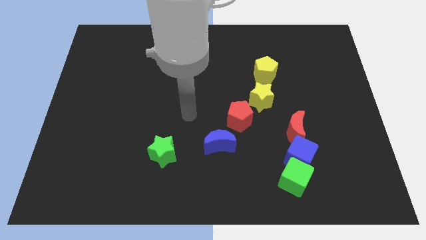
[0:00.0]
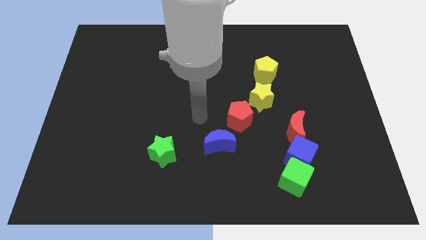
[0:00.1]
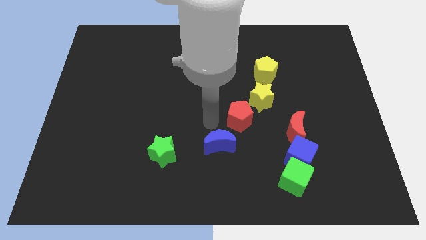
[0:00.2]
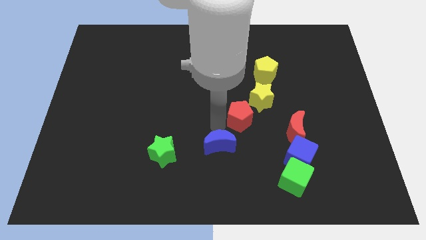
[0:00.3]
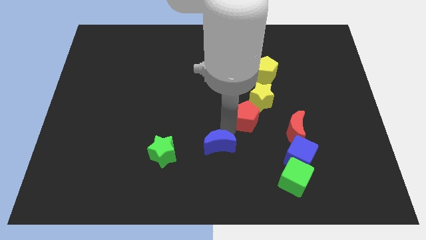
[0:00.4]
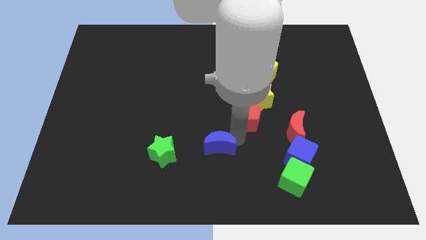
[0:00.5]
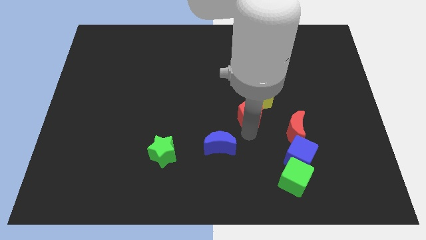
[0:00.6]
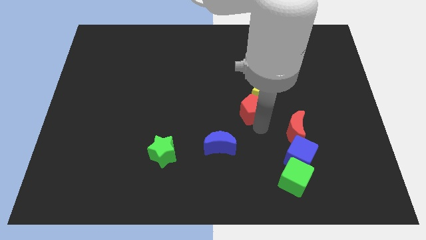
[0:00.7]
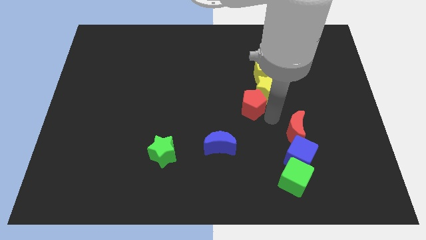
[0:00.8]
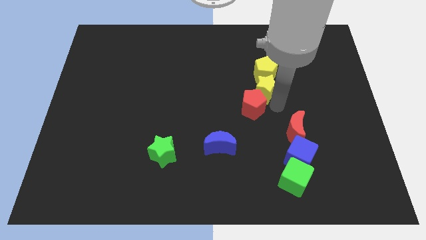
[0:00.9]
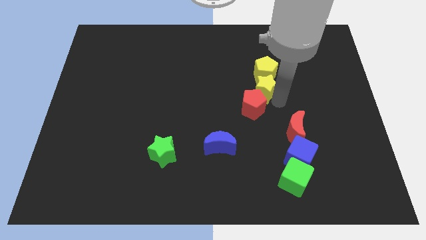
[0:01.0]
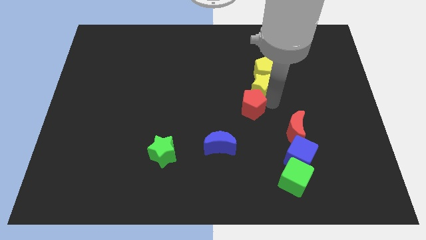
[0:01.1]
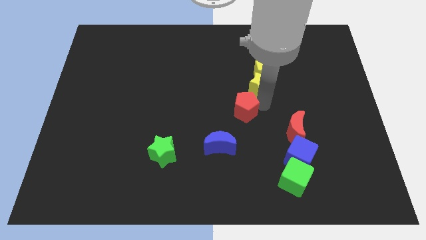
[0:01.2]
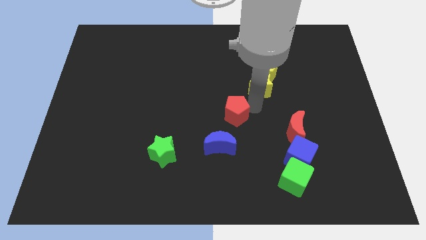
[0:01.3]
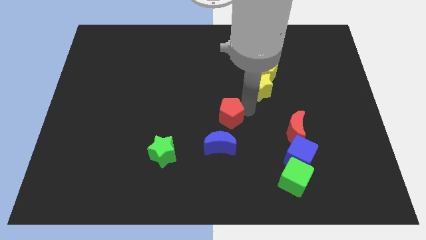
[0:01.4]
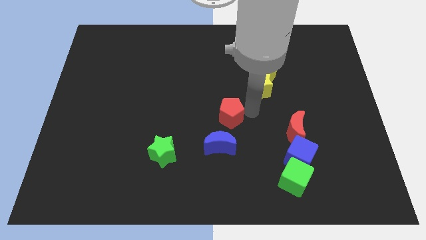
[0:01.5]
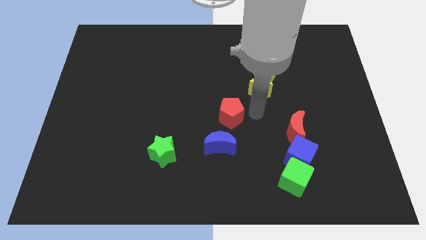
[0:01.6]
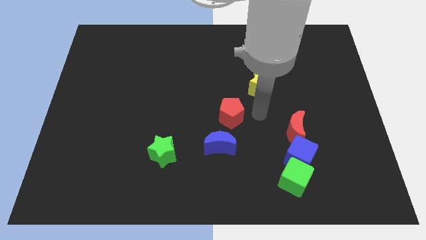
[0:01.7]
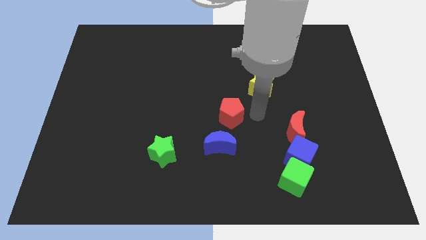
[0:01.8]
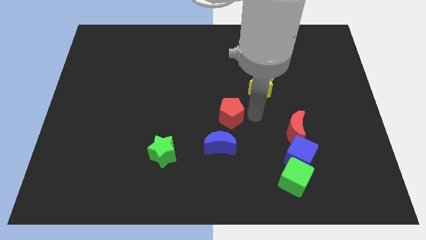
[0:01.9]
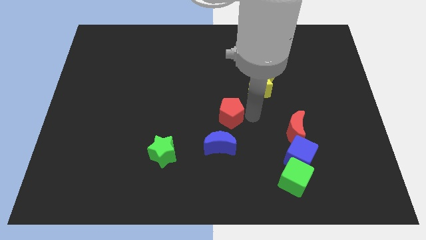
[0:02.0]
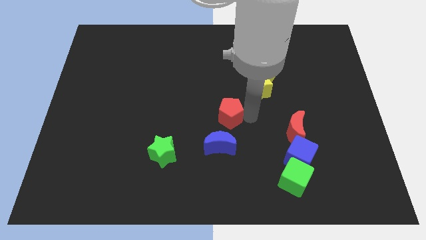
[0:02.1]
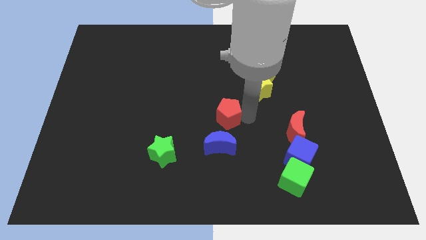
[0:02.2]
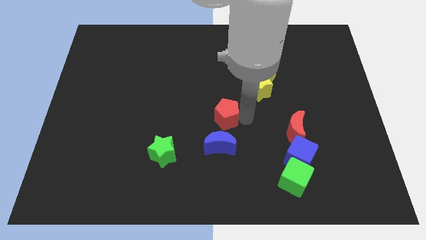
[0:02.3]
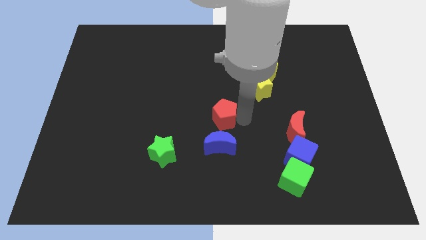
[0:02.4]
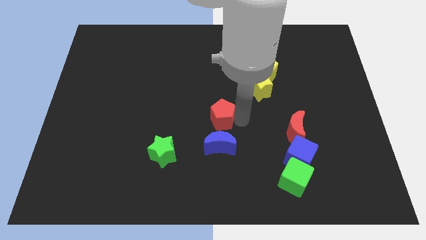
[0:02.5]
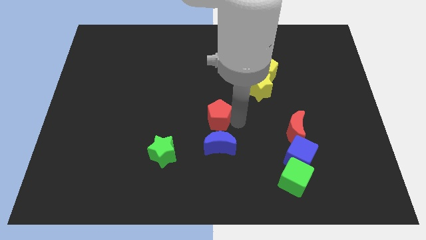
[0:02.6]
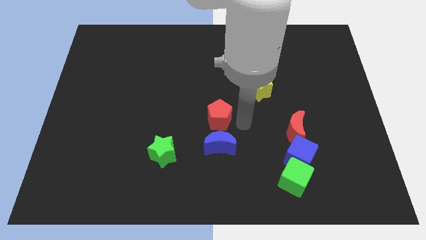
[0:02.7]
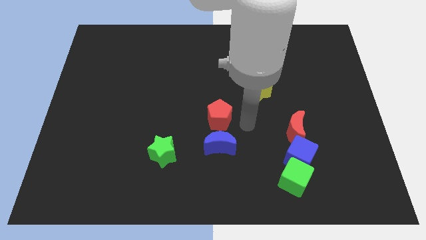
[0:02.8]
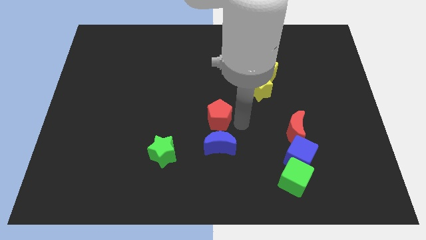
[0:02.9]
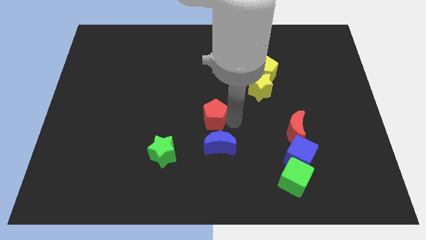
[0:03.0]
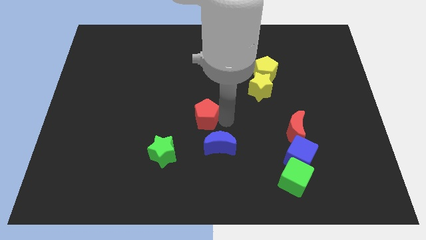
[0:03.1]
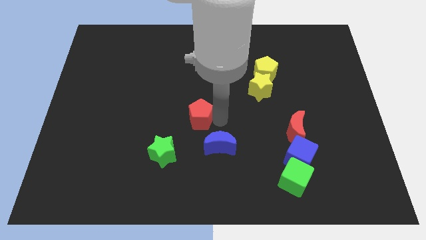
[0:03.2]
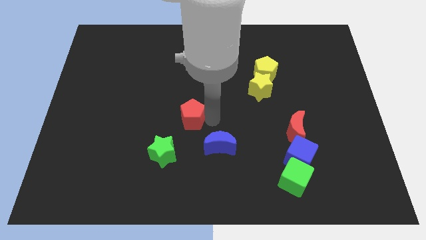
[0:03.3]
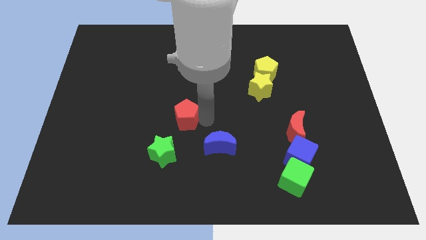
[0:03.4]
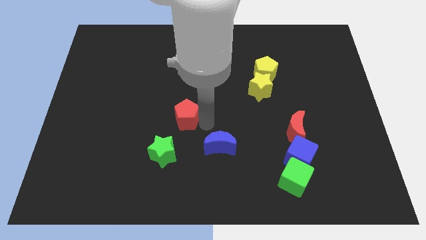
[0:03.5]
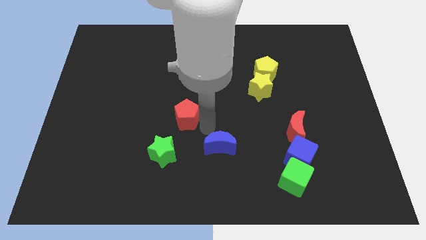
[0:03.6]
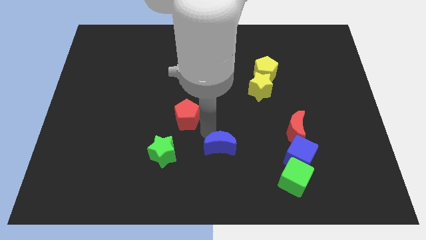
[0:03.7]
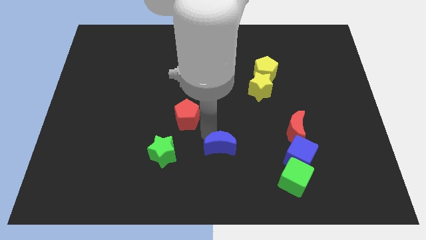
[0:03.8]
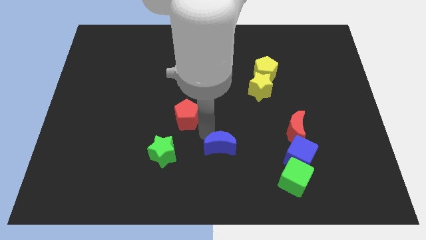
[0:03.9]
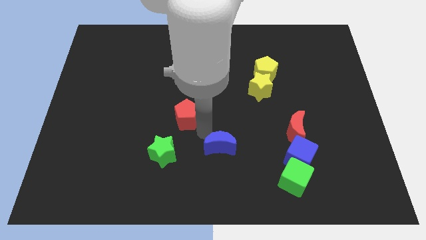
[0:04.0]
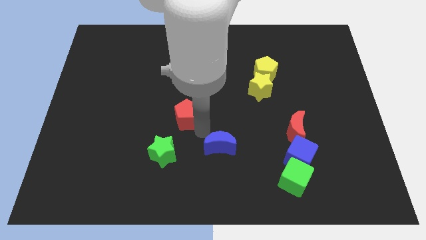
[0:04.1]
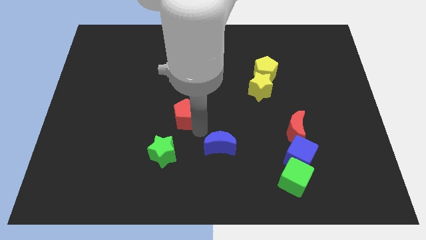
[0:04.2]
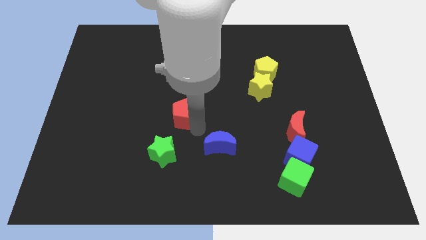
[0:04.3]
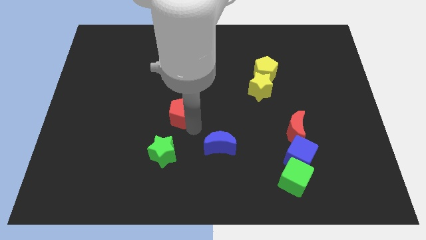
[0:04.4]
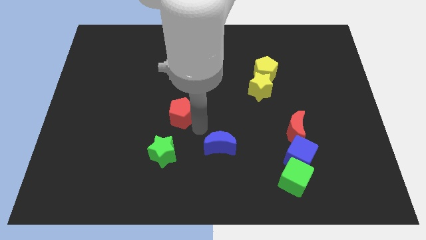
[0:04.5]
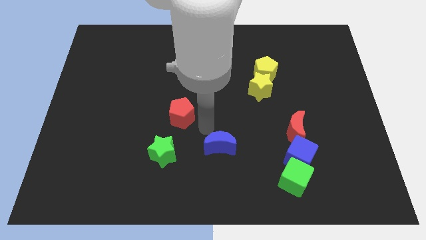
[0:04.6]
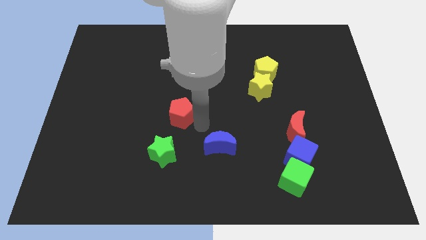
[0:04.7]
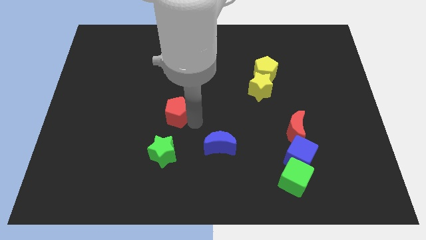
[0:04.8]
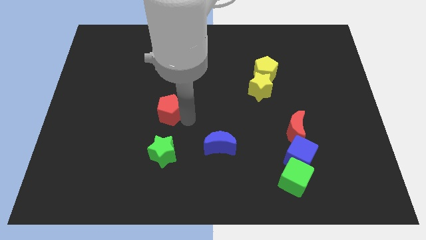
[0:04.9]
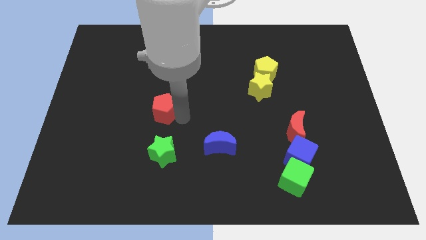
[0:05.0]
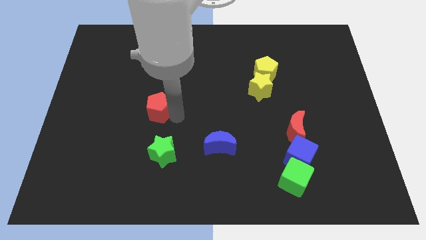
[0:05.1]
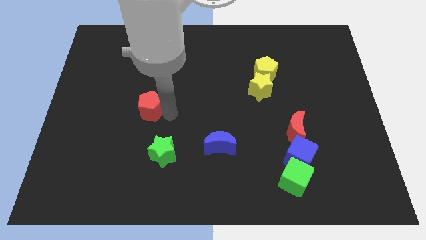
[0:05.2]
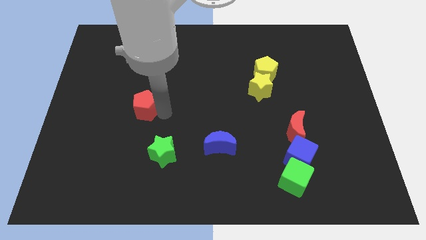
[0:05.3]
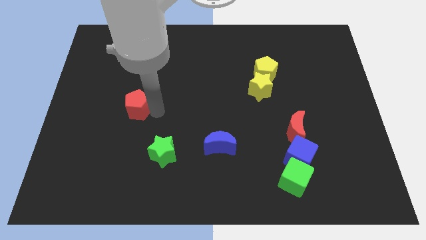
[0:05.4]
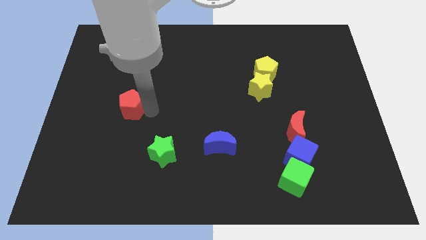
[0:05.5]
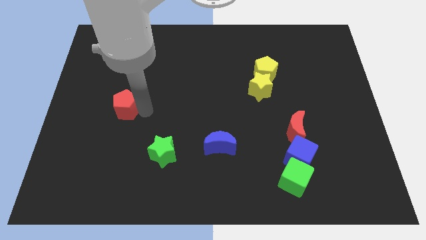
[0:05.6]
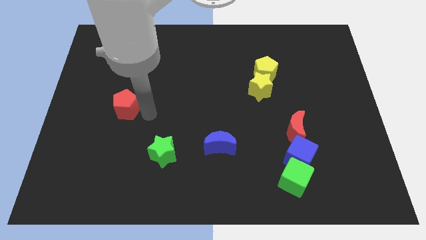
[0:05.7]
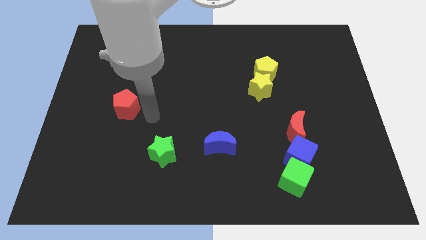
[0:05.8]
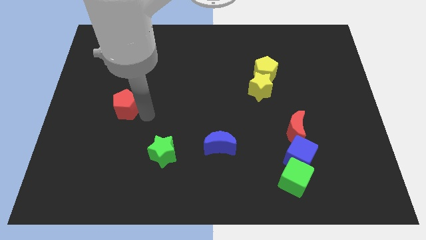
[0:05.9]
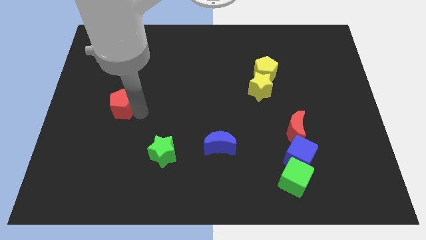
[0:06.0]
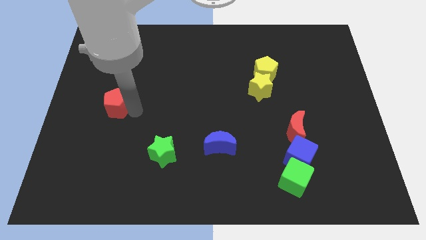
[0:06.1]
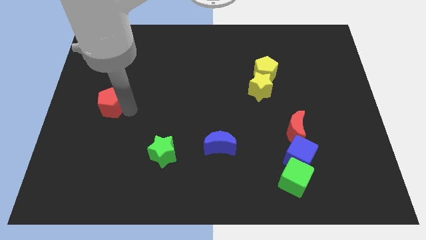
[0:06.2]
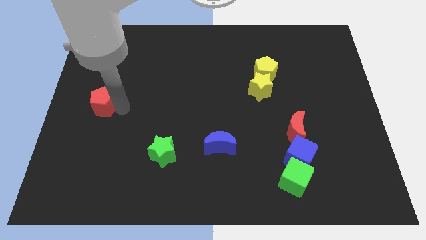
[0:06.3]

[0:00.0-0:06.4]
push the red pentagon to the left side of the board
